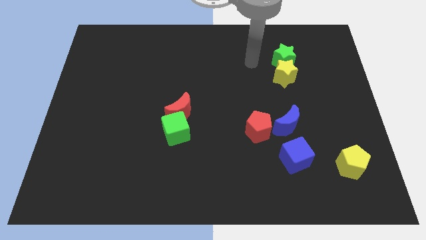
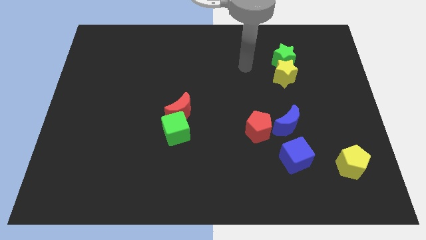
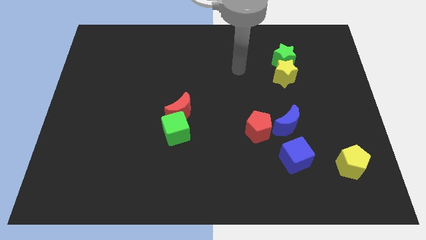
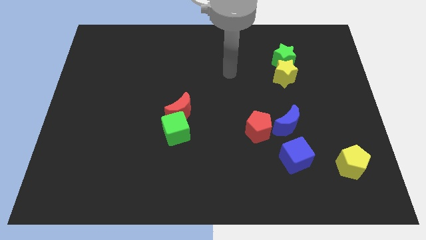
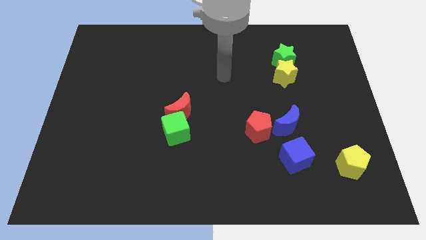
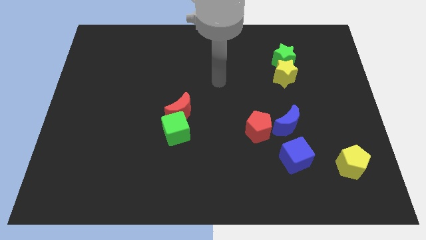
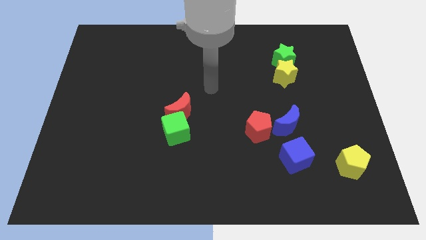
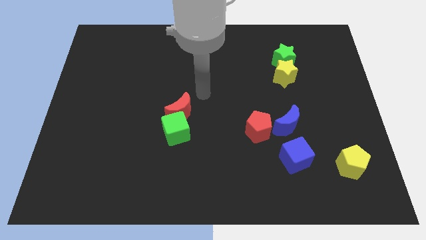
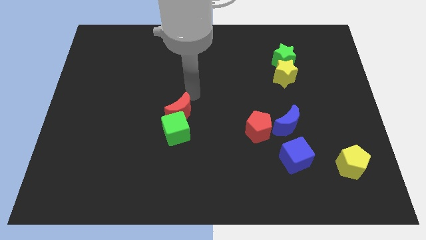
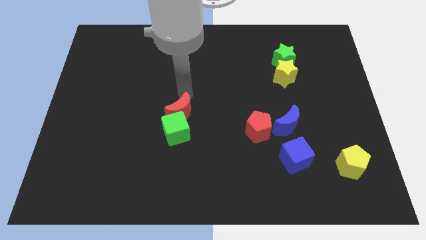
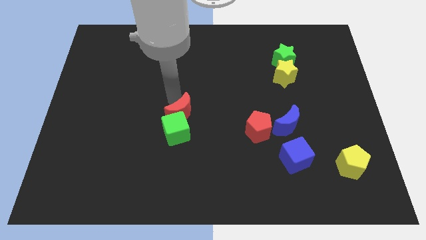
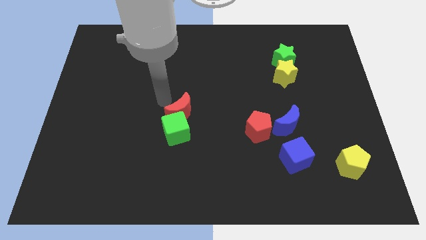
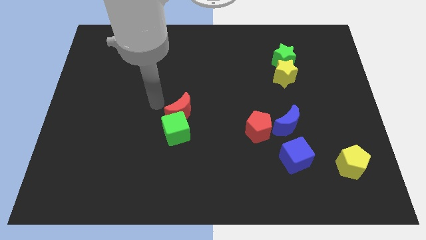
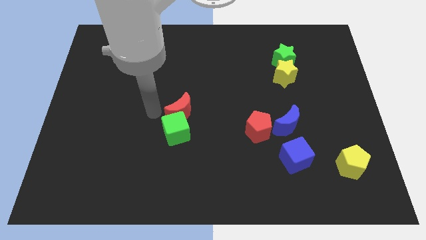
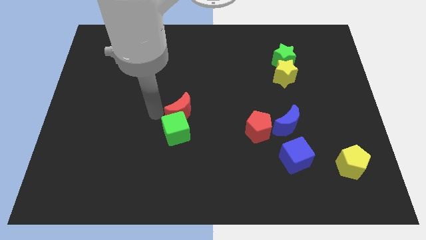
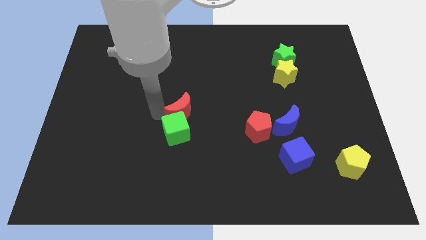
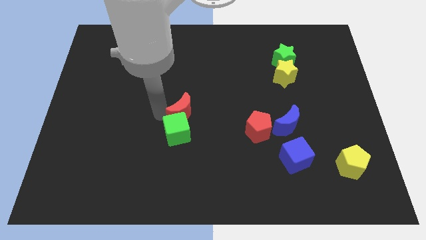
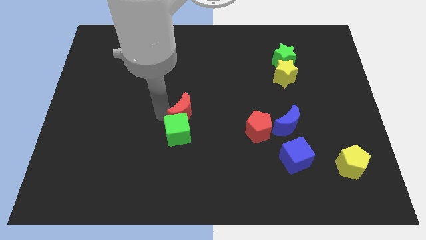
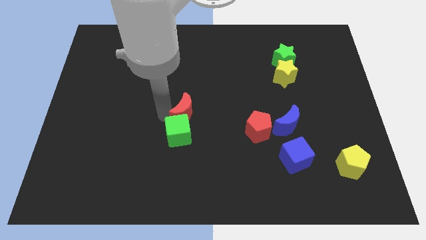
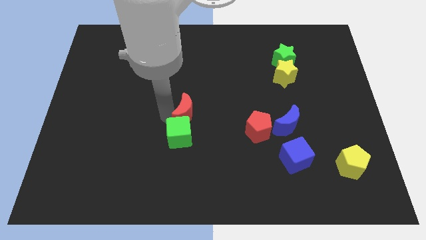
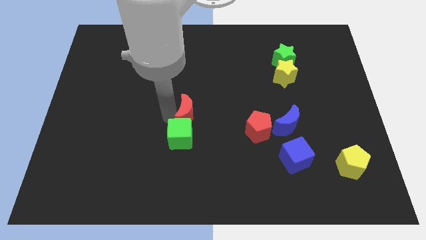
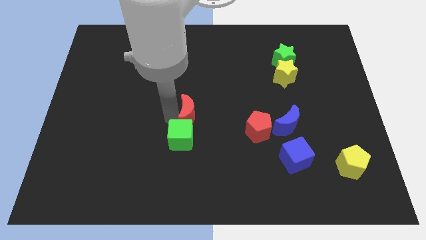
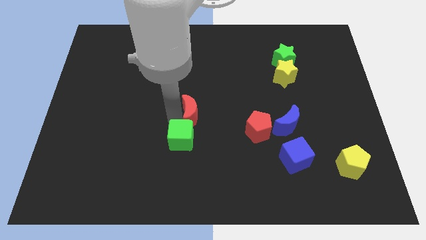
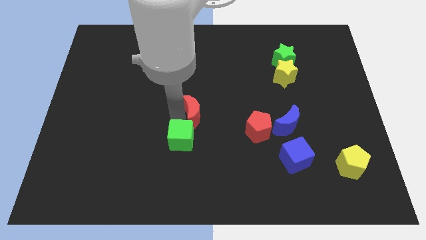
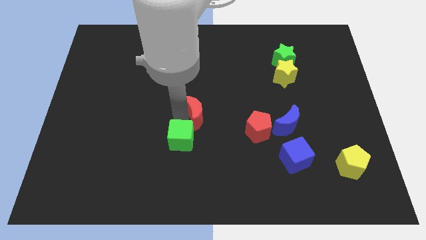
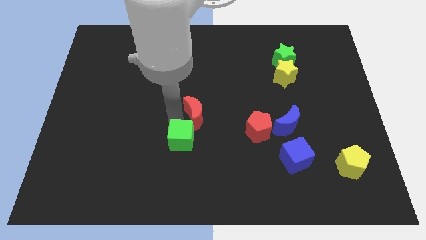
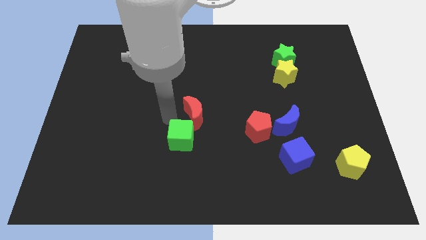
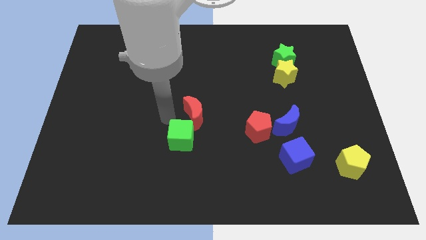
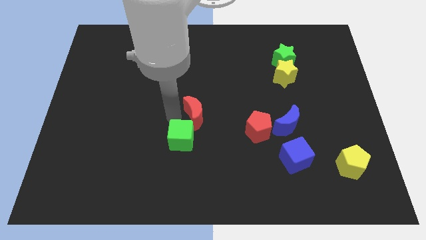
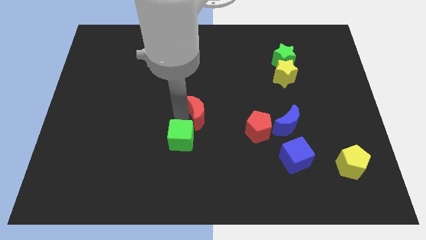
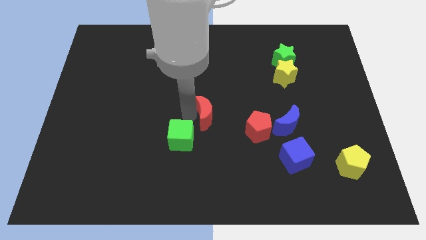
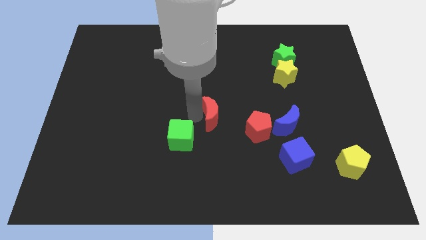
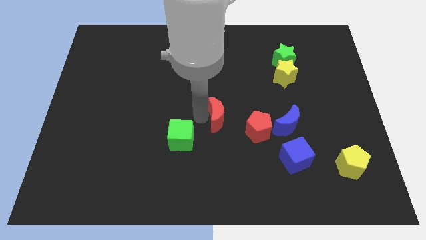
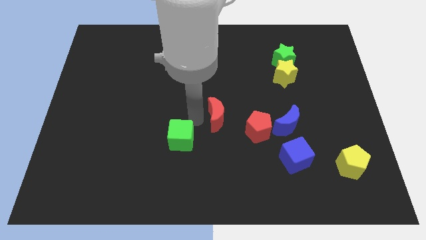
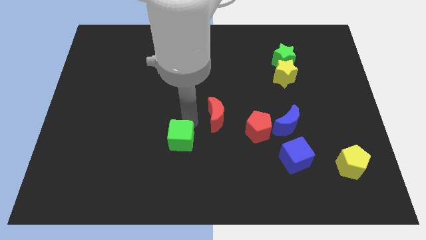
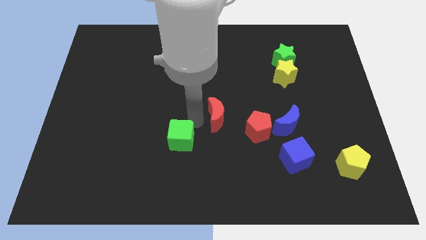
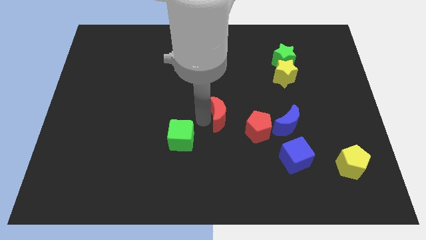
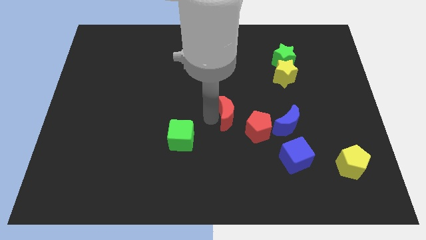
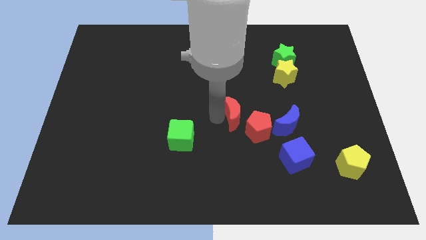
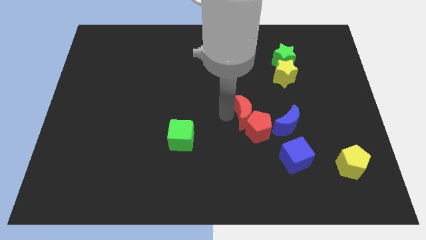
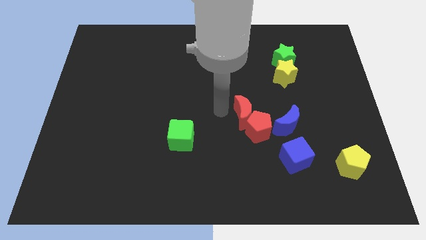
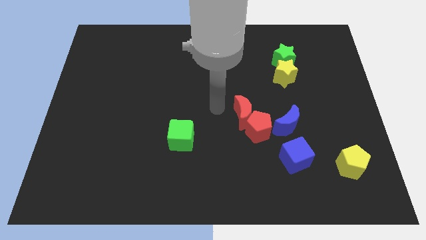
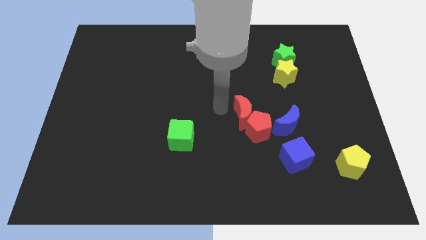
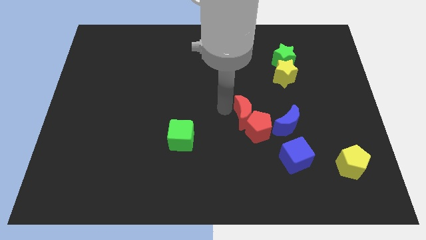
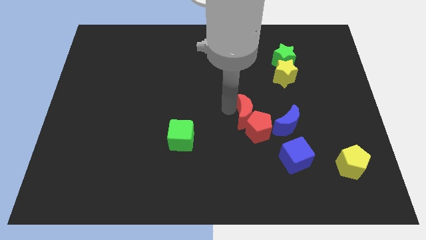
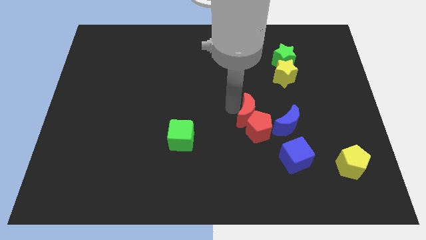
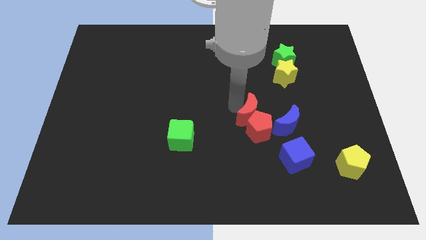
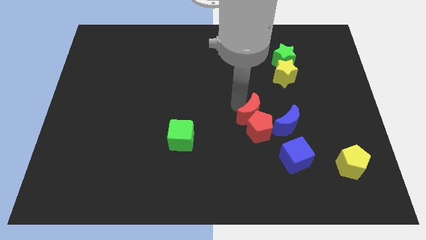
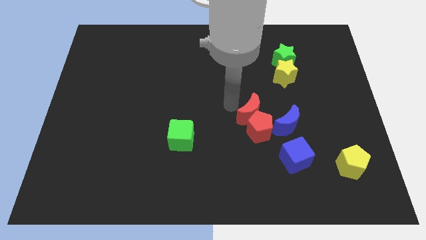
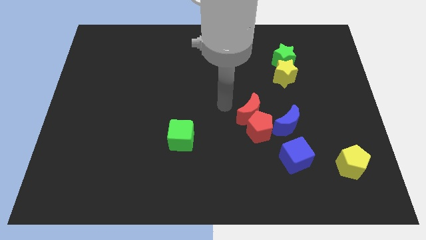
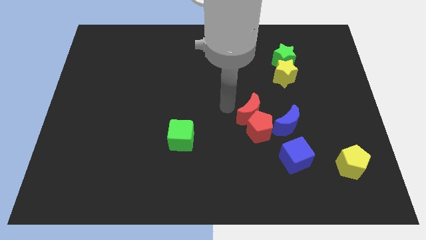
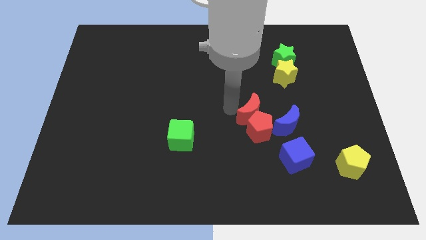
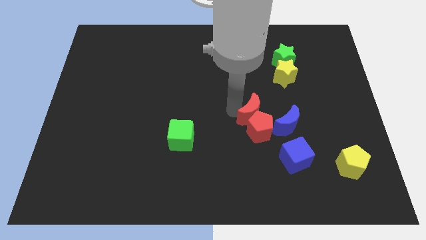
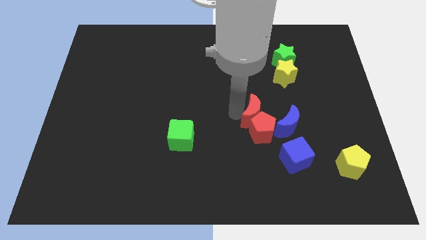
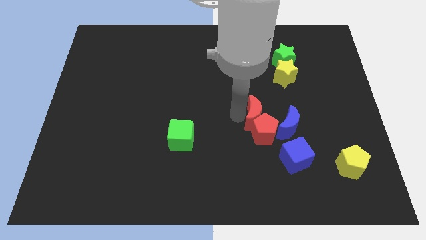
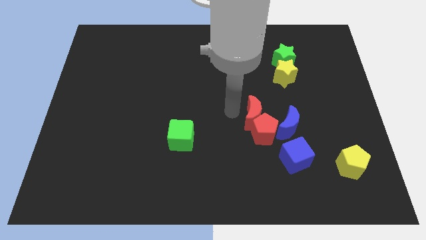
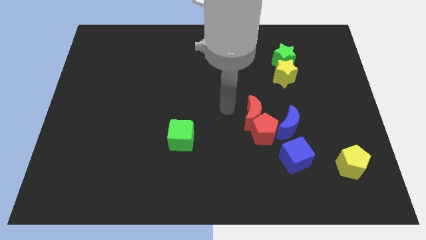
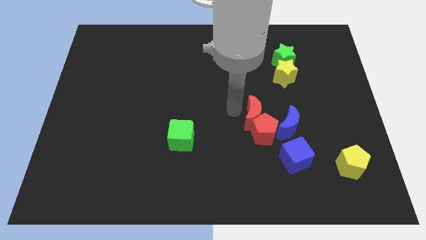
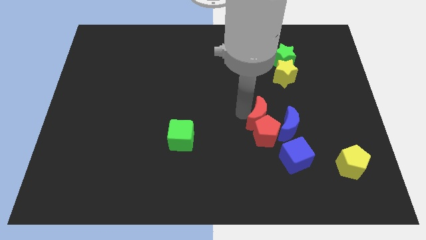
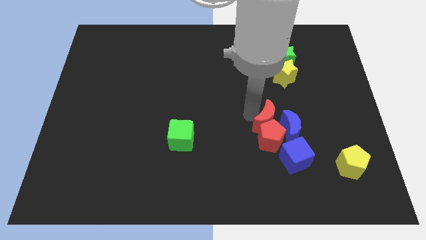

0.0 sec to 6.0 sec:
slide the red moon close to the blue moon

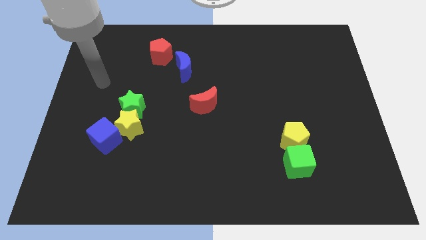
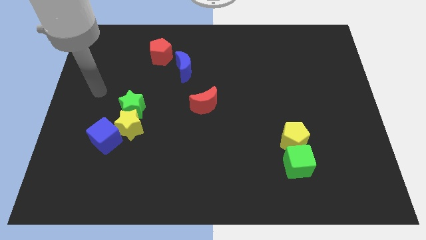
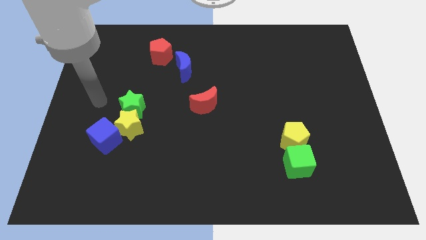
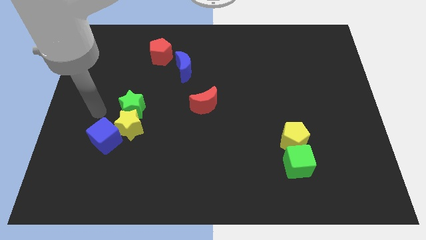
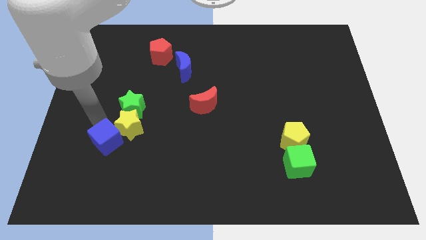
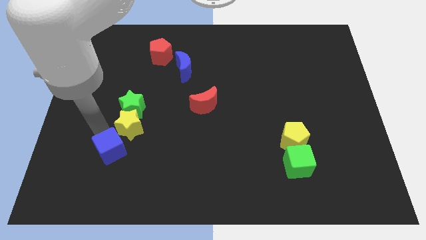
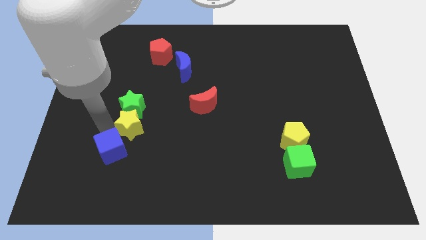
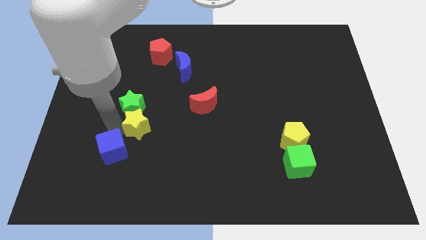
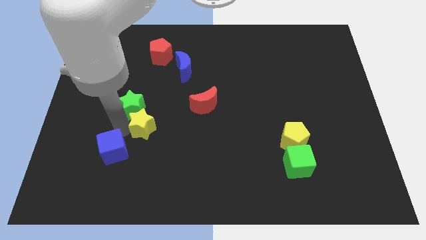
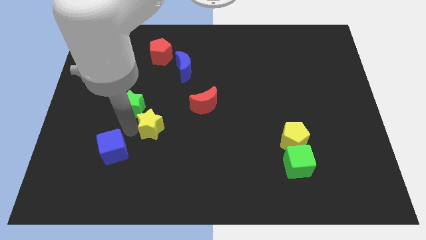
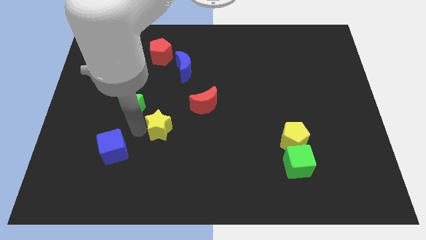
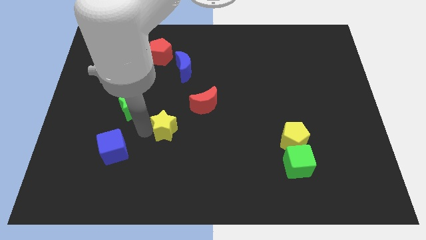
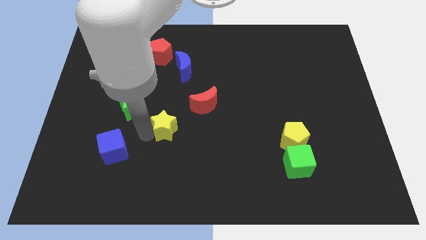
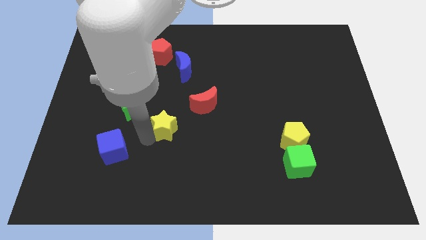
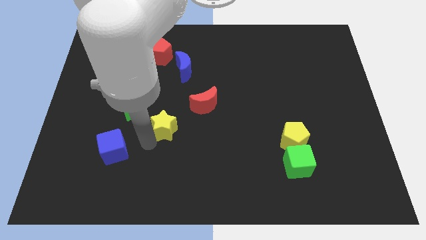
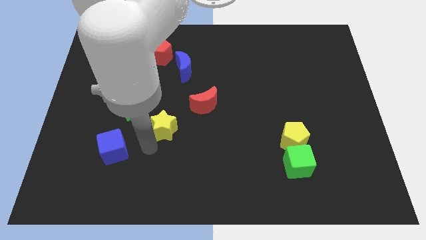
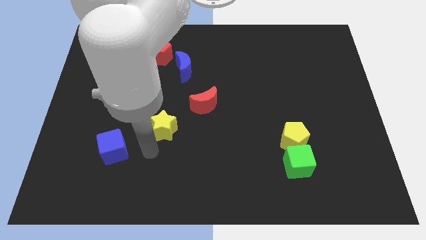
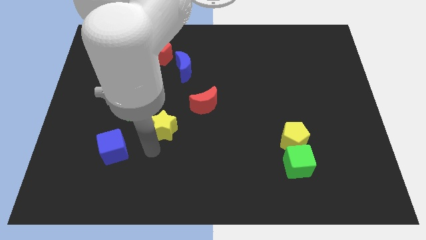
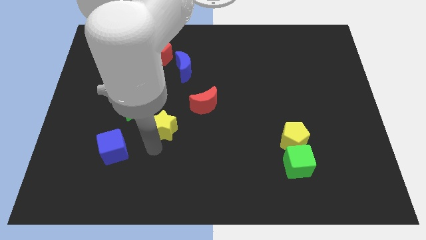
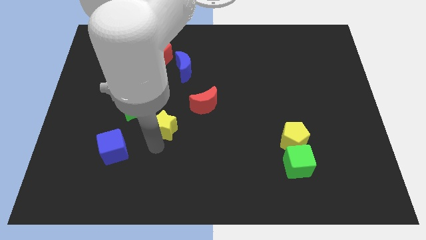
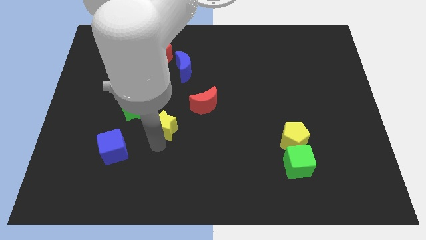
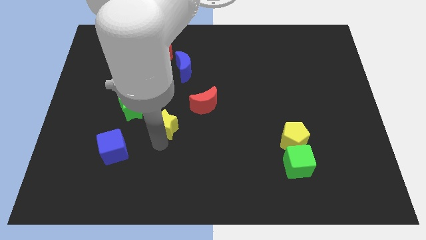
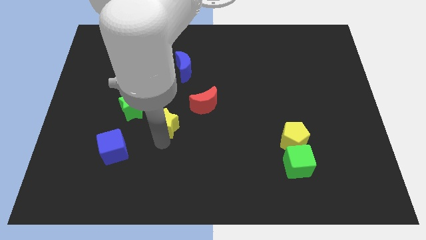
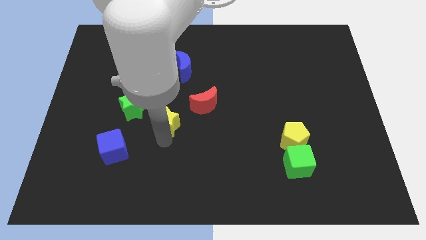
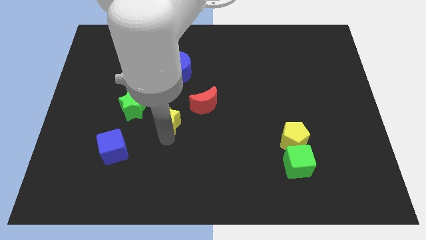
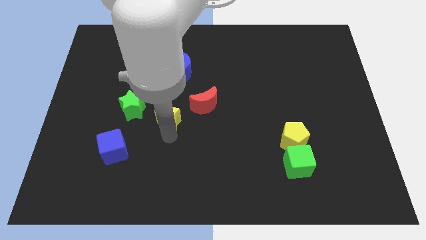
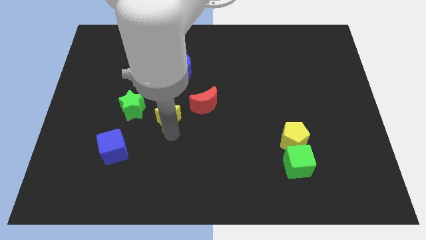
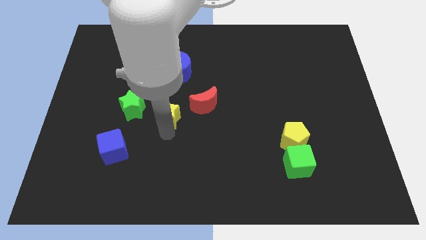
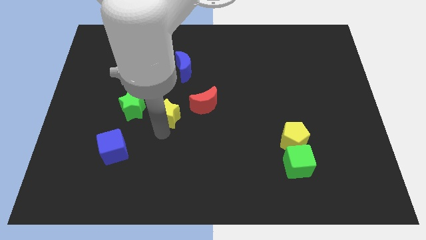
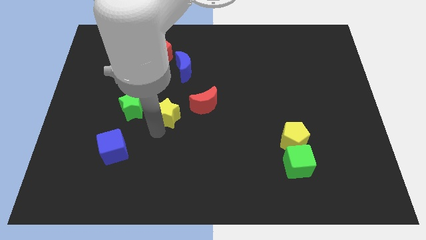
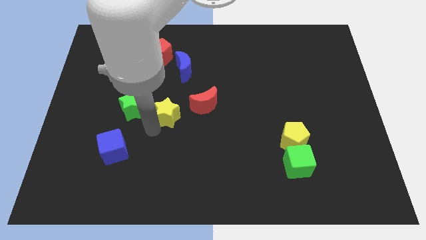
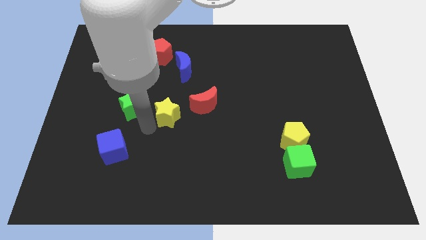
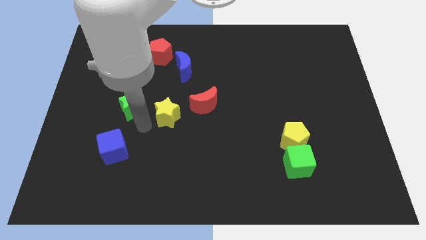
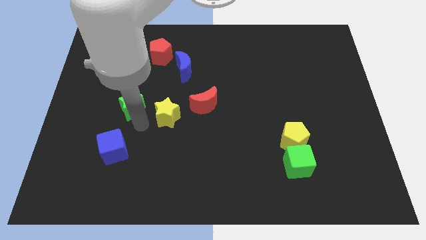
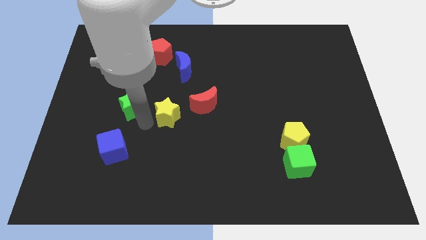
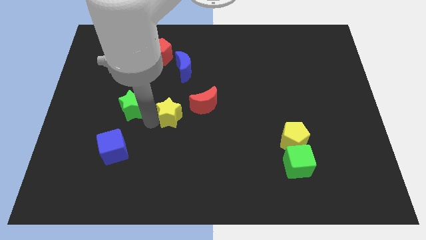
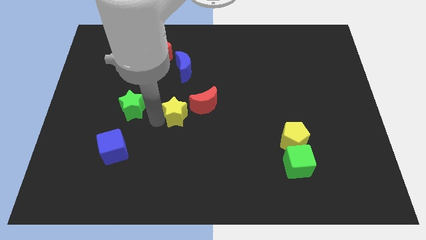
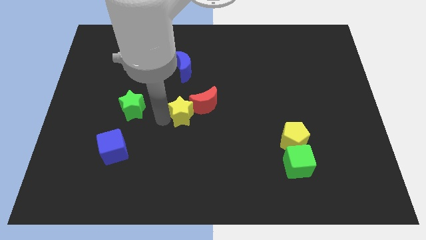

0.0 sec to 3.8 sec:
slide the yellow star close to the red moon
